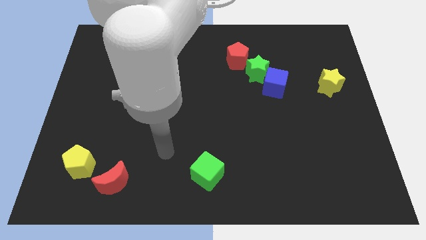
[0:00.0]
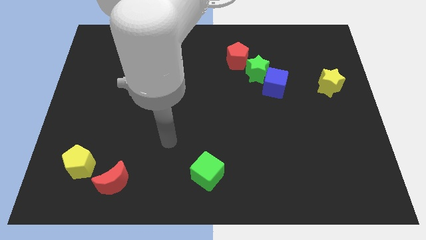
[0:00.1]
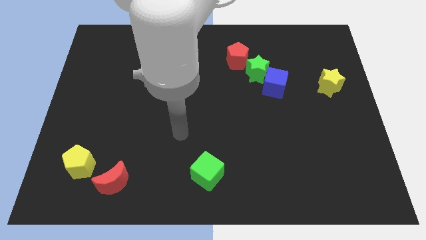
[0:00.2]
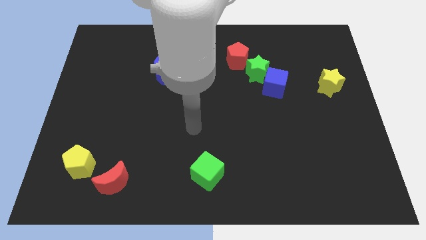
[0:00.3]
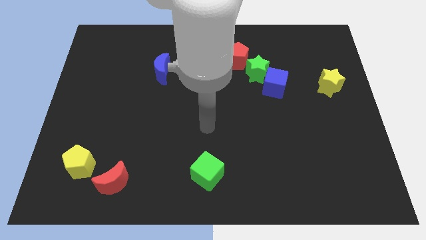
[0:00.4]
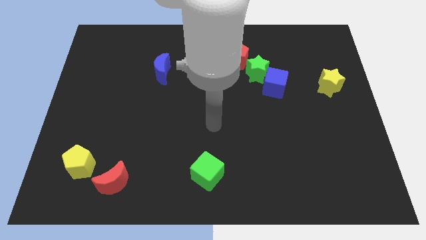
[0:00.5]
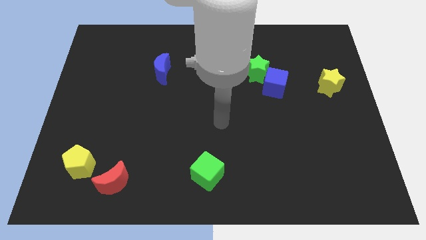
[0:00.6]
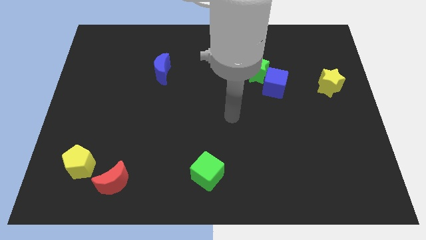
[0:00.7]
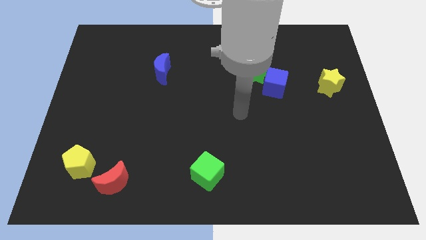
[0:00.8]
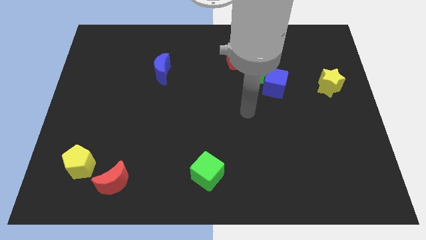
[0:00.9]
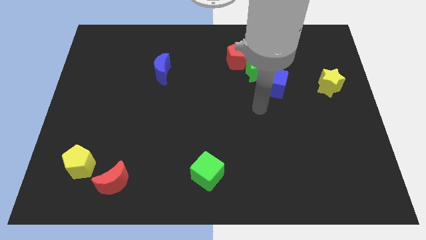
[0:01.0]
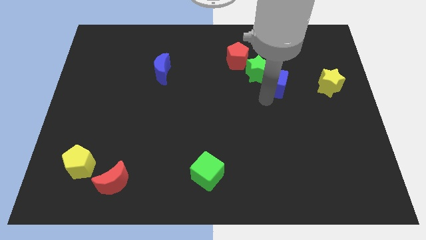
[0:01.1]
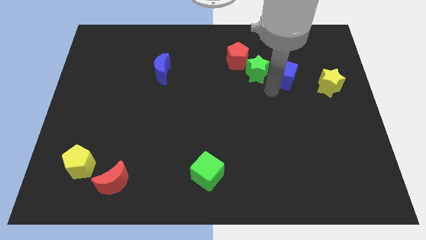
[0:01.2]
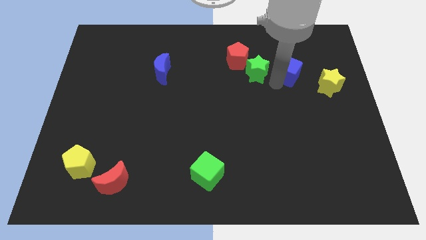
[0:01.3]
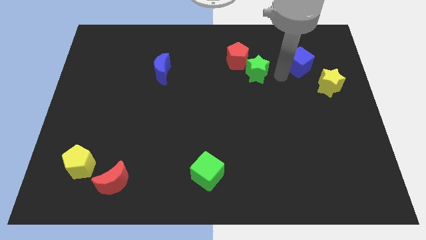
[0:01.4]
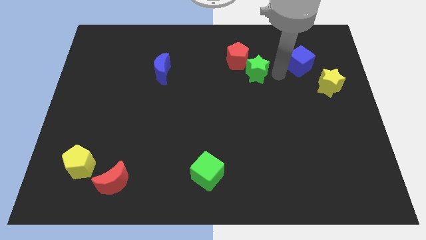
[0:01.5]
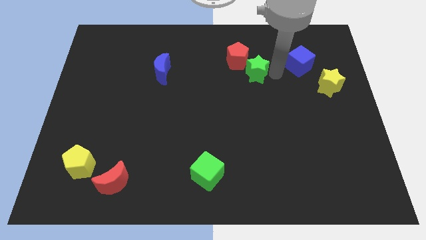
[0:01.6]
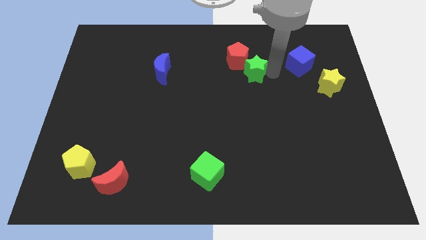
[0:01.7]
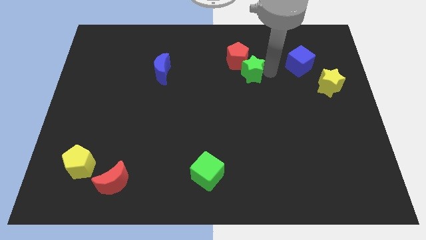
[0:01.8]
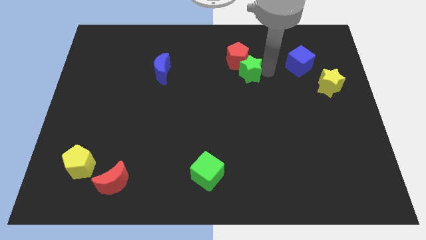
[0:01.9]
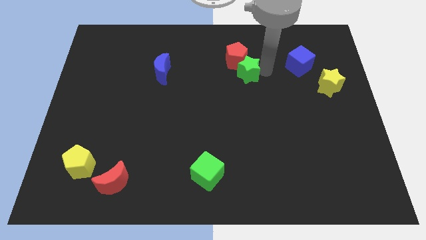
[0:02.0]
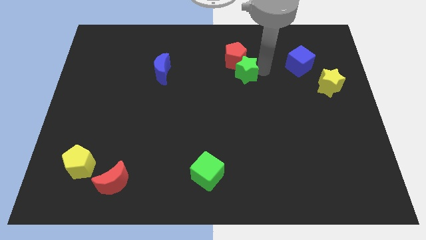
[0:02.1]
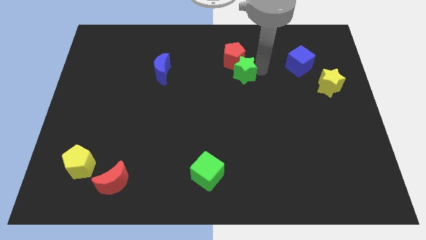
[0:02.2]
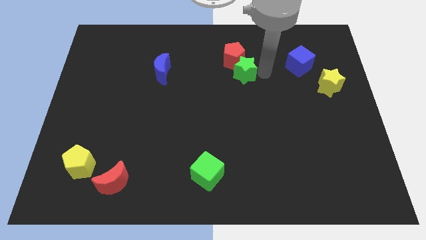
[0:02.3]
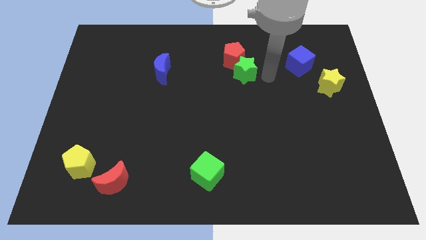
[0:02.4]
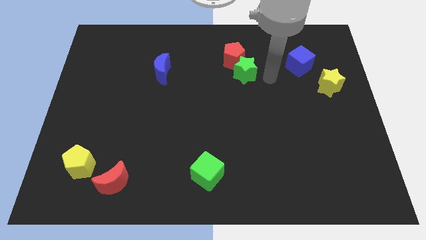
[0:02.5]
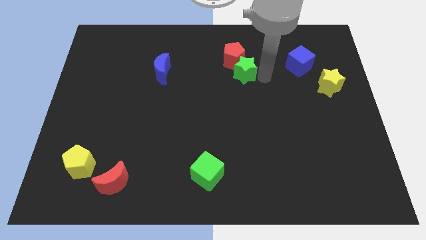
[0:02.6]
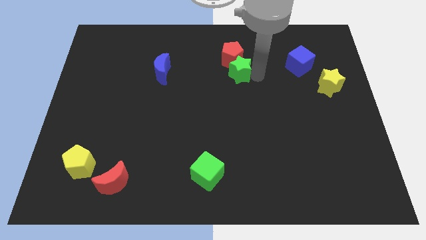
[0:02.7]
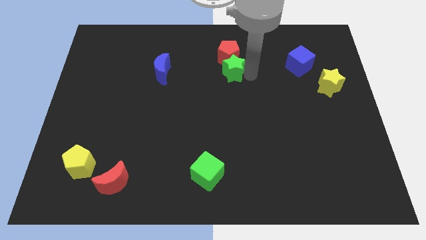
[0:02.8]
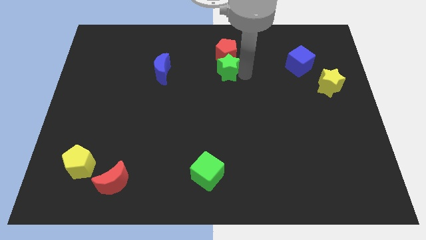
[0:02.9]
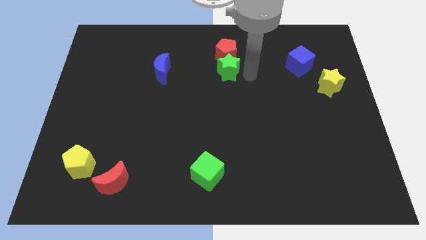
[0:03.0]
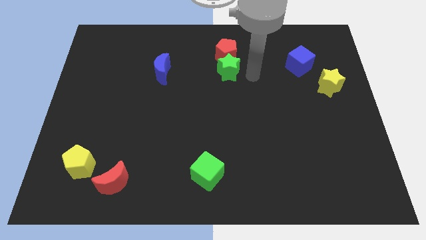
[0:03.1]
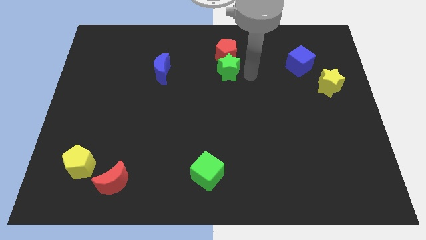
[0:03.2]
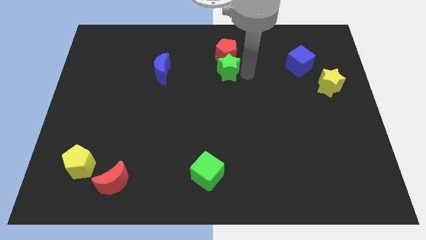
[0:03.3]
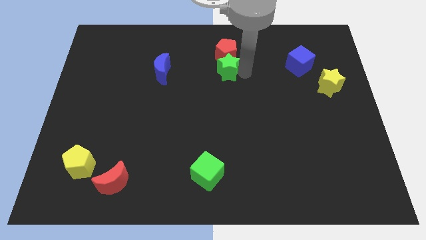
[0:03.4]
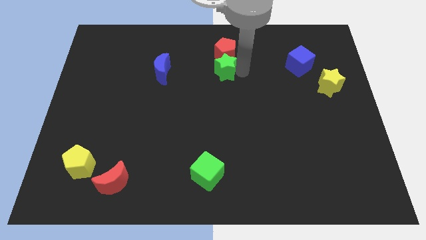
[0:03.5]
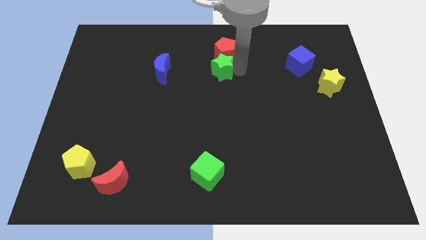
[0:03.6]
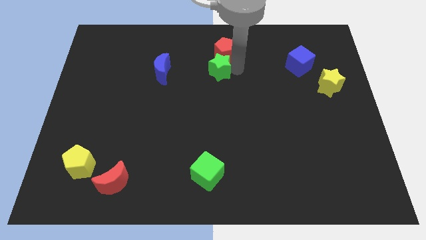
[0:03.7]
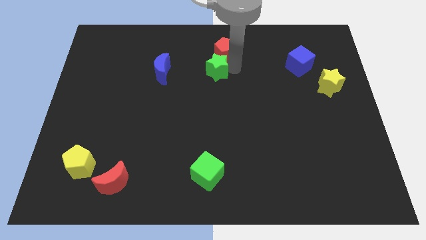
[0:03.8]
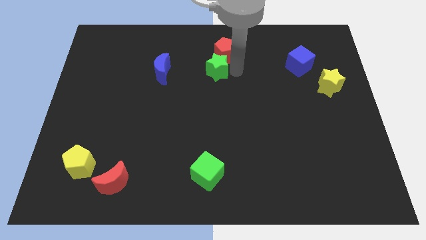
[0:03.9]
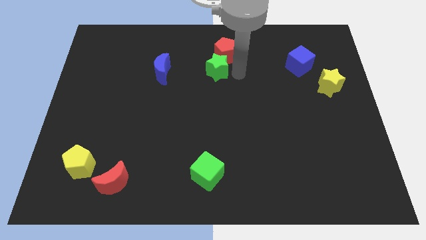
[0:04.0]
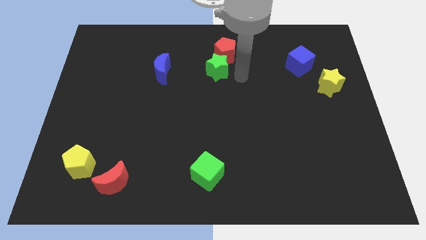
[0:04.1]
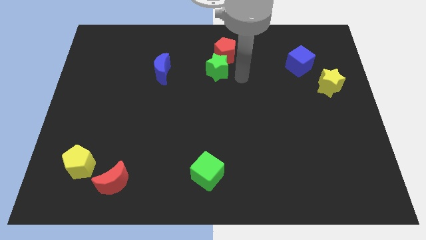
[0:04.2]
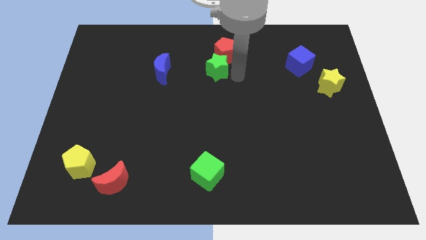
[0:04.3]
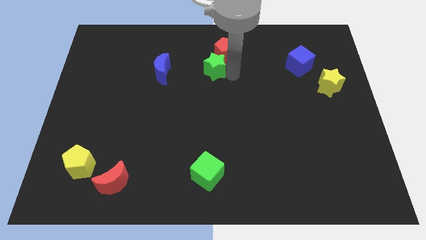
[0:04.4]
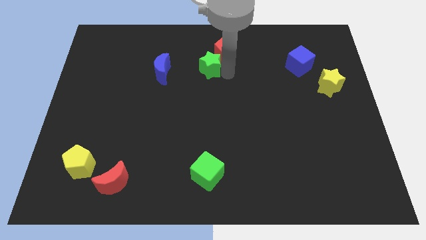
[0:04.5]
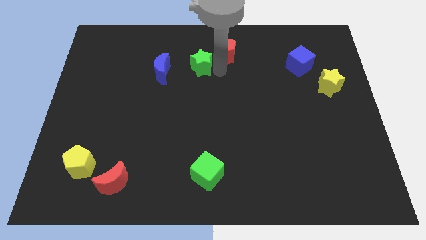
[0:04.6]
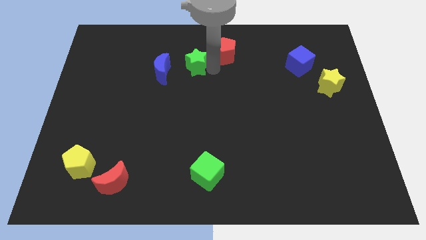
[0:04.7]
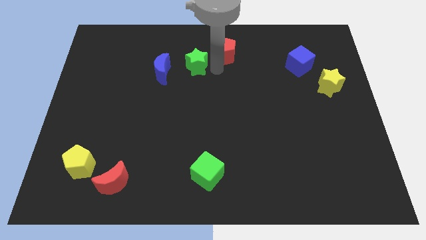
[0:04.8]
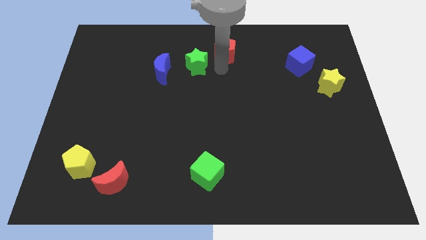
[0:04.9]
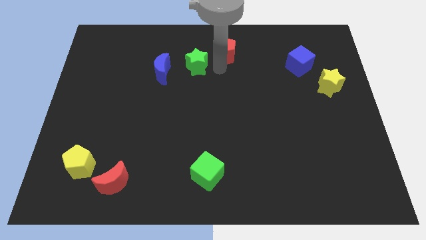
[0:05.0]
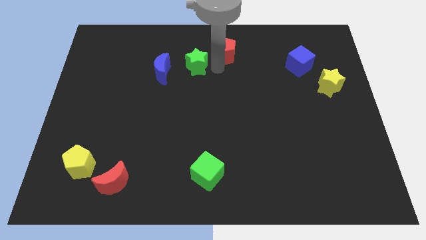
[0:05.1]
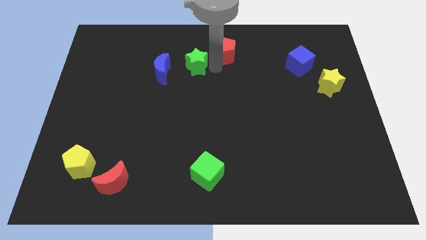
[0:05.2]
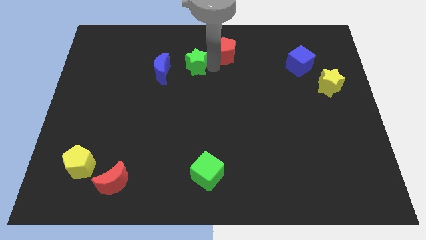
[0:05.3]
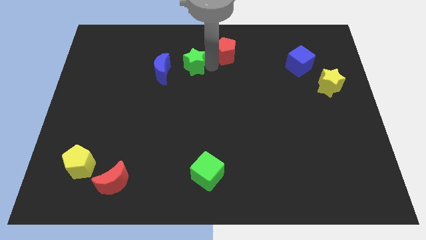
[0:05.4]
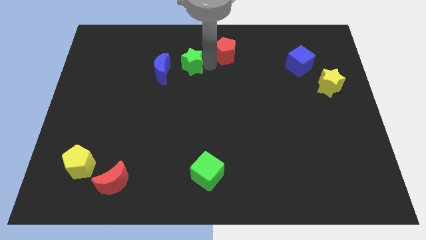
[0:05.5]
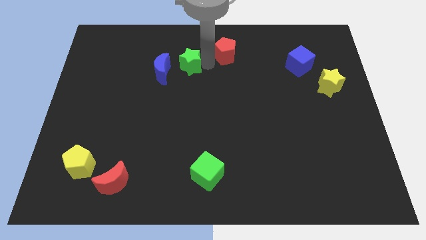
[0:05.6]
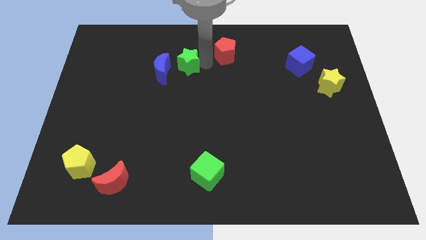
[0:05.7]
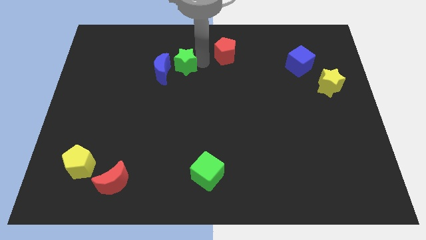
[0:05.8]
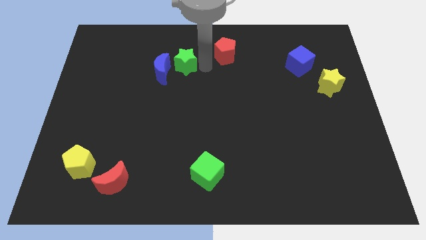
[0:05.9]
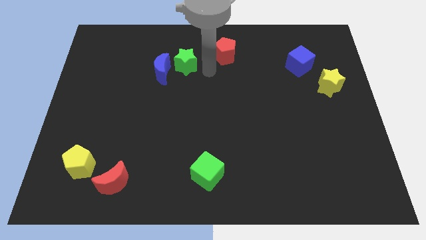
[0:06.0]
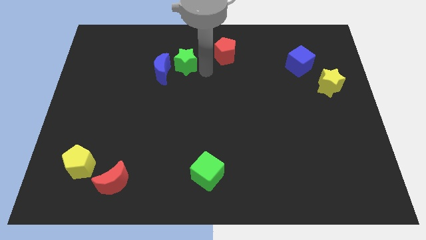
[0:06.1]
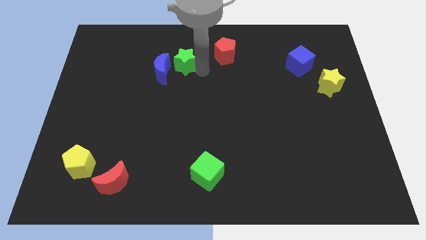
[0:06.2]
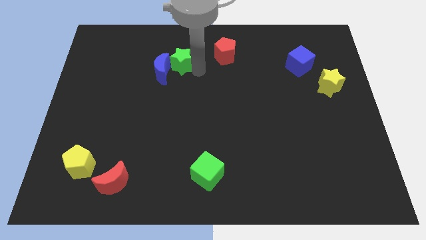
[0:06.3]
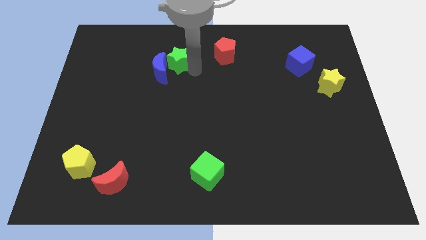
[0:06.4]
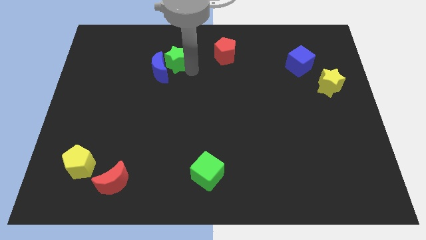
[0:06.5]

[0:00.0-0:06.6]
push the green star left

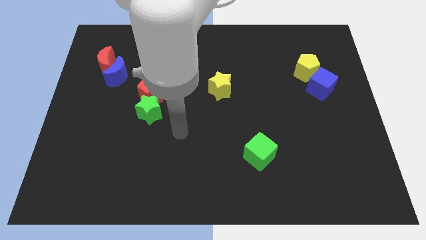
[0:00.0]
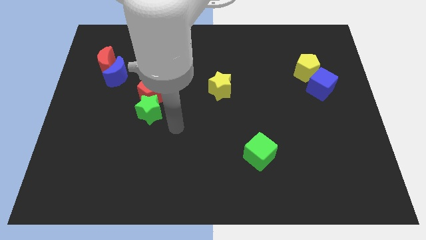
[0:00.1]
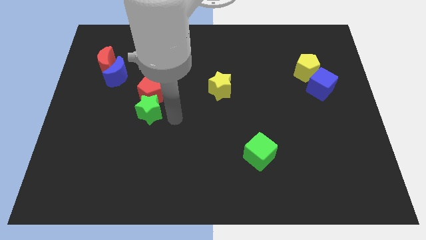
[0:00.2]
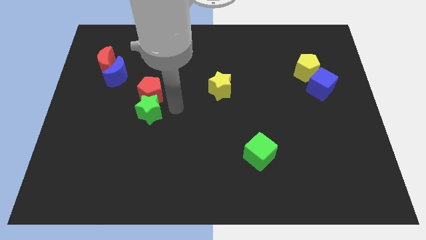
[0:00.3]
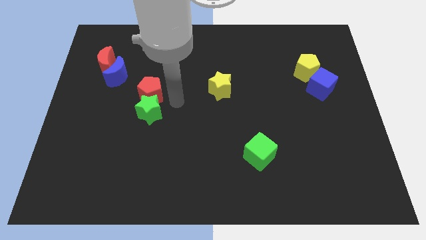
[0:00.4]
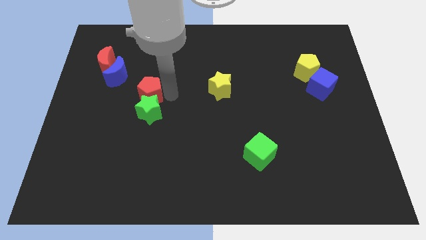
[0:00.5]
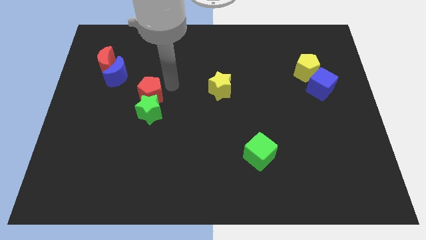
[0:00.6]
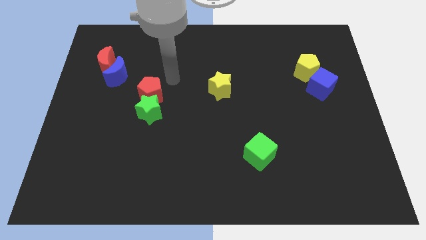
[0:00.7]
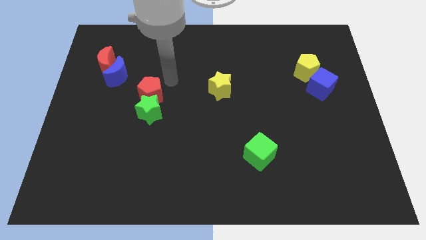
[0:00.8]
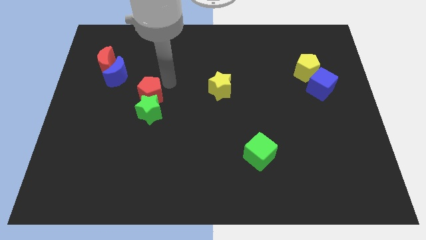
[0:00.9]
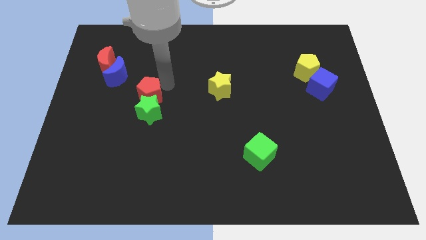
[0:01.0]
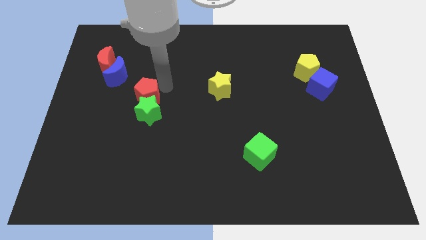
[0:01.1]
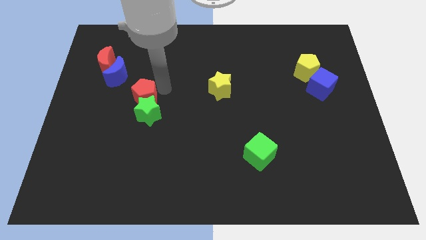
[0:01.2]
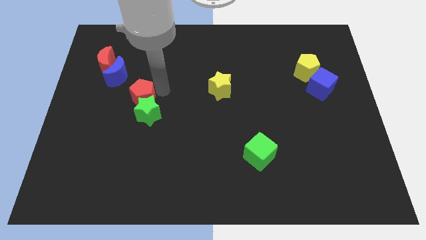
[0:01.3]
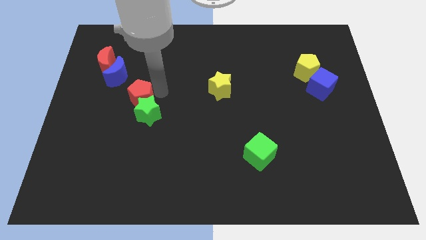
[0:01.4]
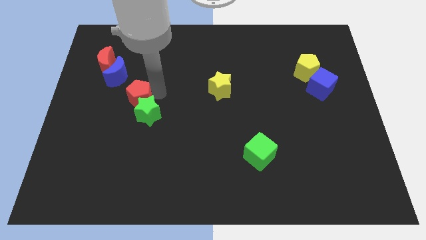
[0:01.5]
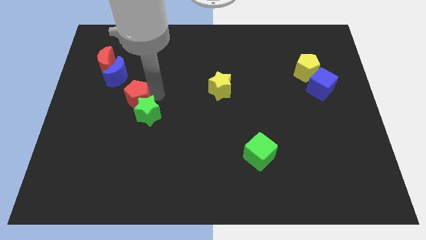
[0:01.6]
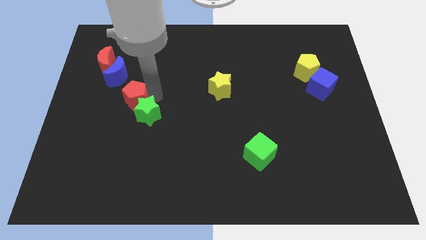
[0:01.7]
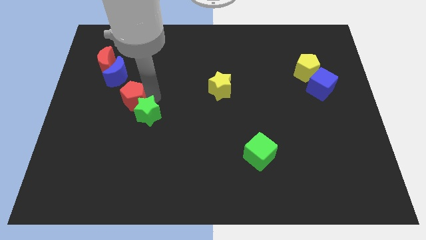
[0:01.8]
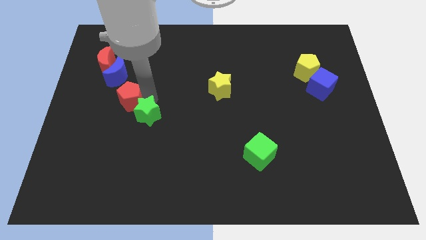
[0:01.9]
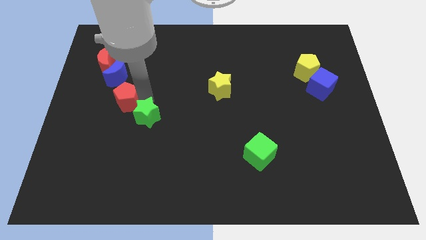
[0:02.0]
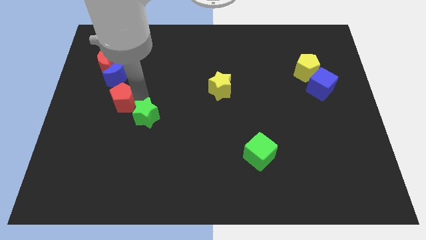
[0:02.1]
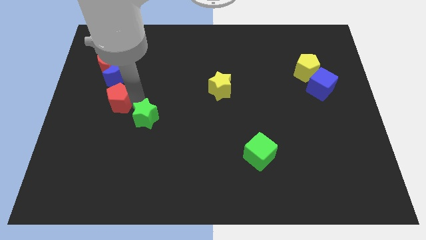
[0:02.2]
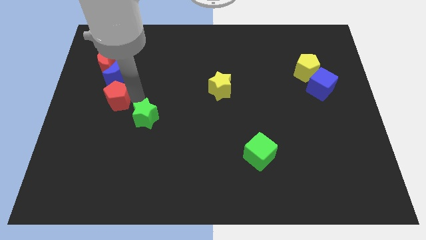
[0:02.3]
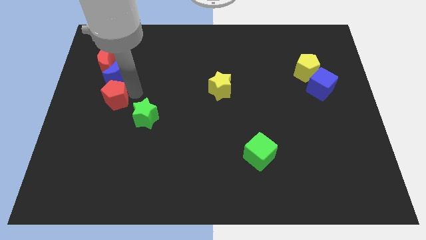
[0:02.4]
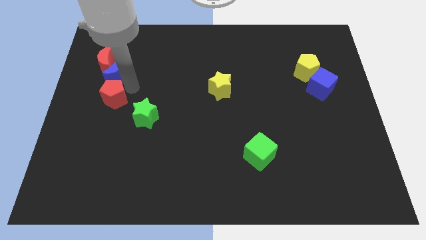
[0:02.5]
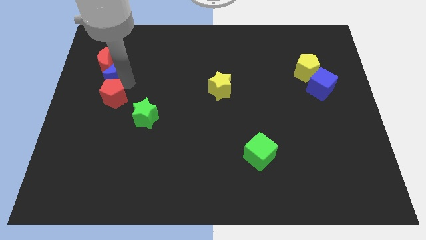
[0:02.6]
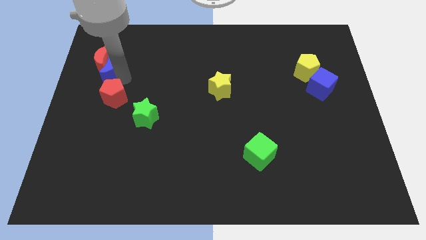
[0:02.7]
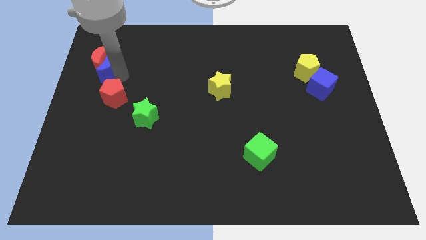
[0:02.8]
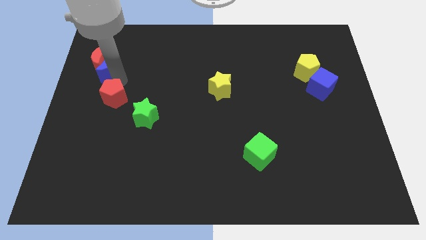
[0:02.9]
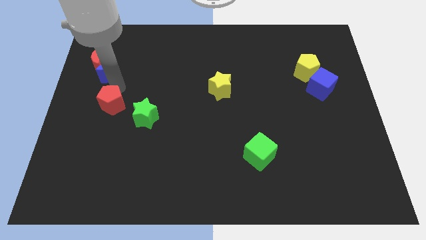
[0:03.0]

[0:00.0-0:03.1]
push the red pentagon slightly diagonally down and left
